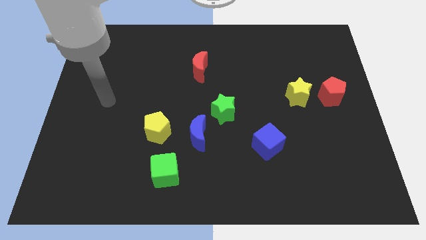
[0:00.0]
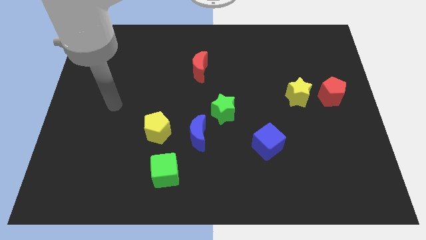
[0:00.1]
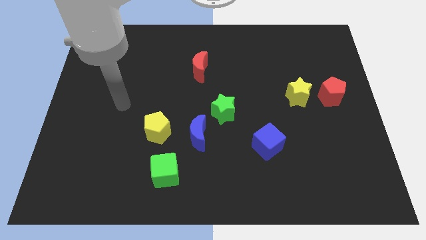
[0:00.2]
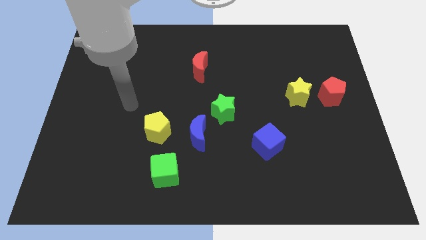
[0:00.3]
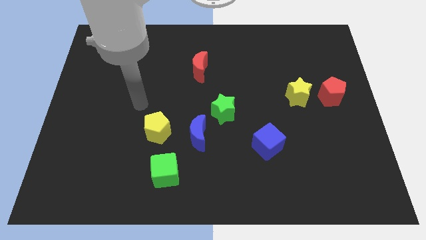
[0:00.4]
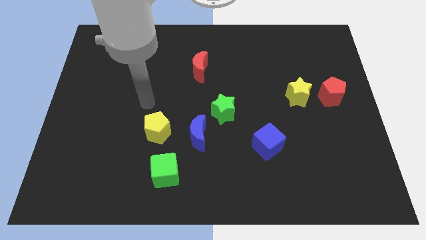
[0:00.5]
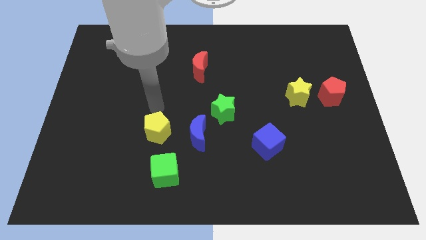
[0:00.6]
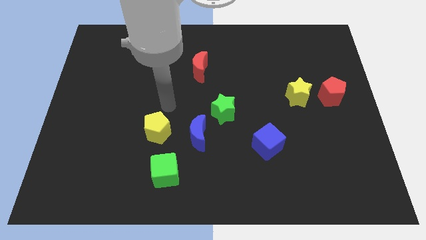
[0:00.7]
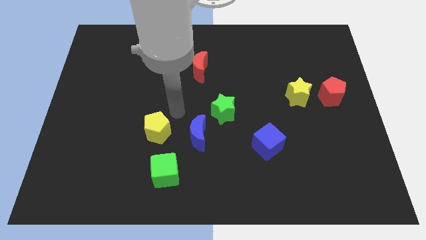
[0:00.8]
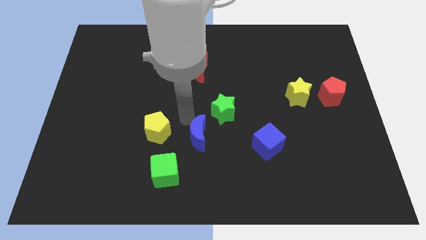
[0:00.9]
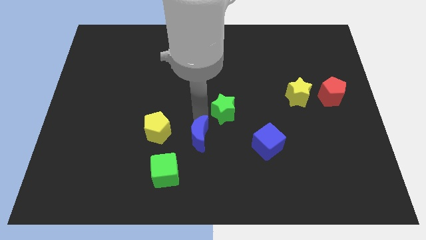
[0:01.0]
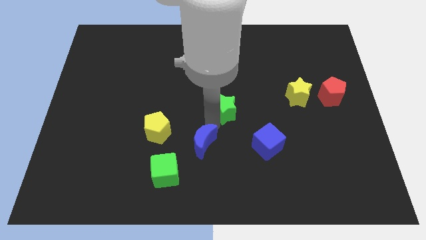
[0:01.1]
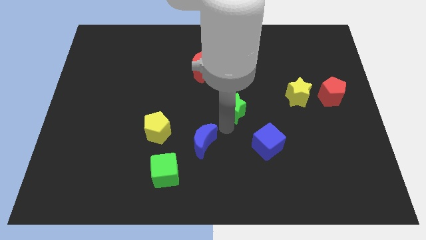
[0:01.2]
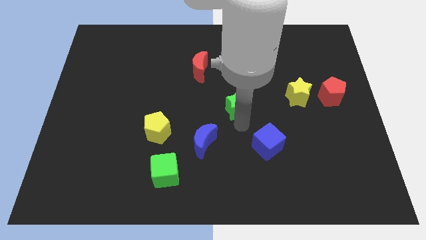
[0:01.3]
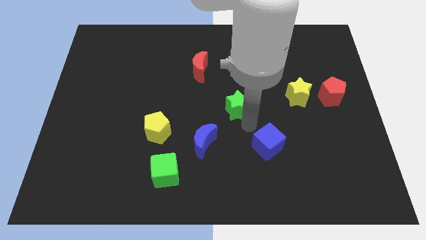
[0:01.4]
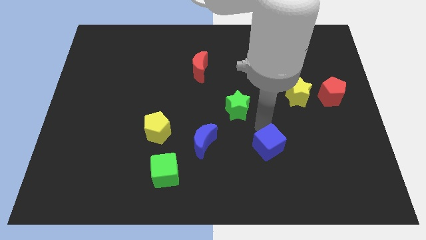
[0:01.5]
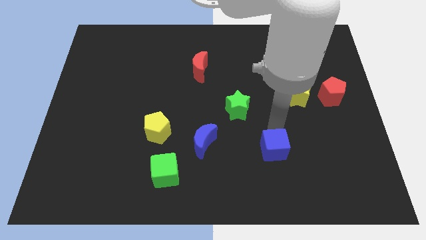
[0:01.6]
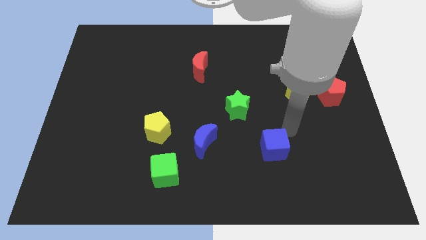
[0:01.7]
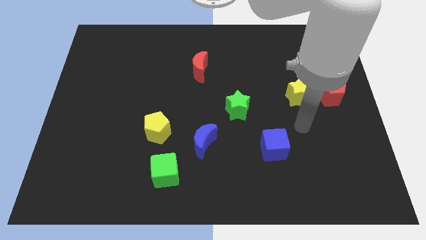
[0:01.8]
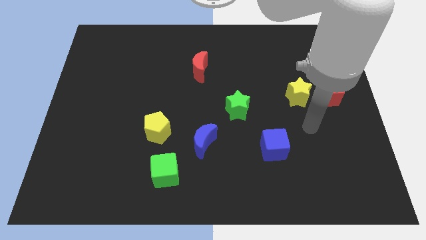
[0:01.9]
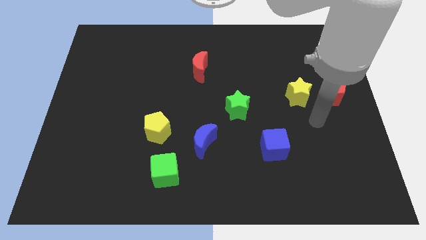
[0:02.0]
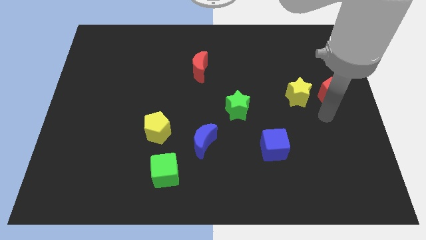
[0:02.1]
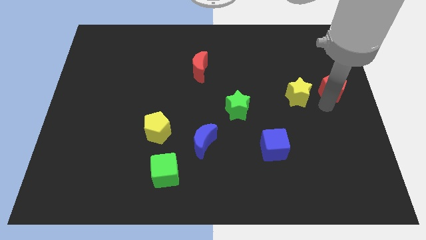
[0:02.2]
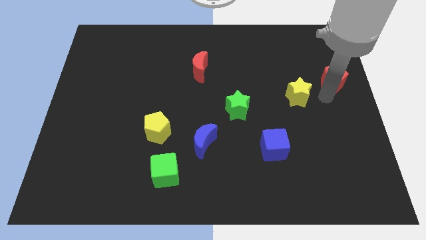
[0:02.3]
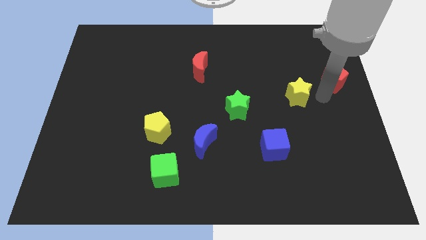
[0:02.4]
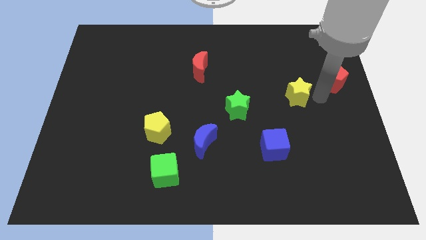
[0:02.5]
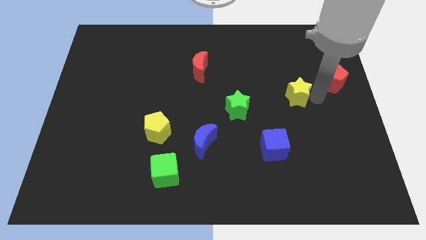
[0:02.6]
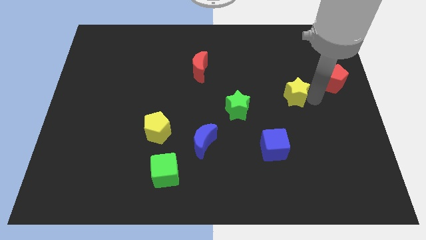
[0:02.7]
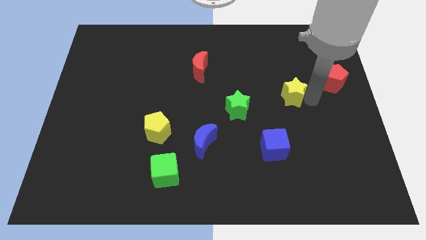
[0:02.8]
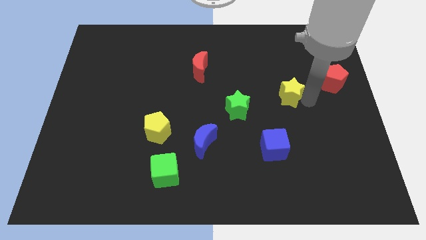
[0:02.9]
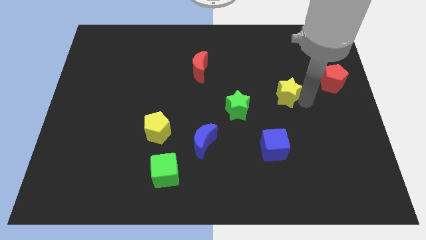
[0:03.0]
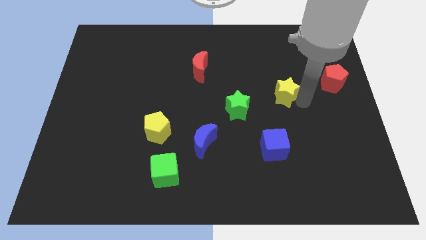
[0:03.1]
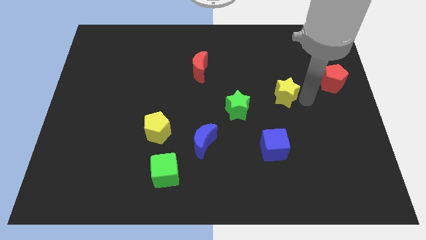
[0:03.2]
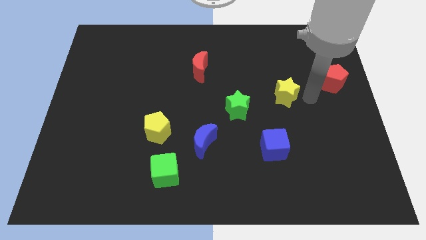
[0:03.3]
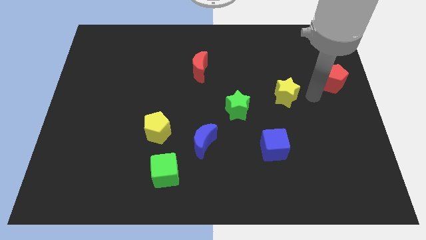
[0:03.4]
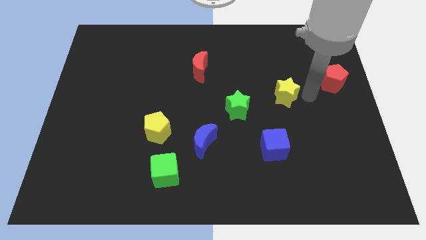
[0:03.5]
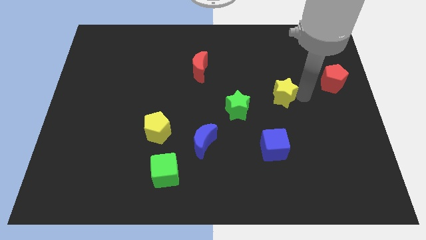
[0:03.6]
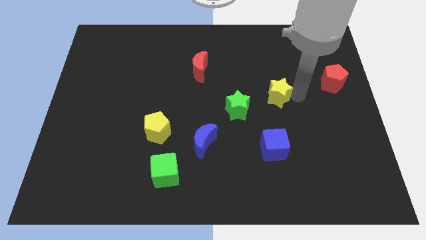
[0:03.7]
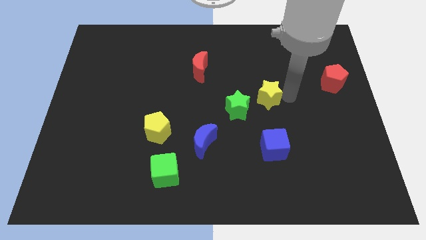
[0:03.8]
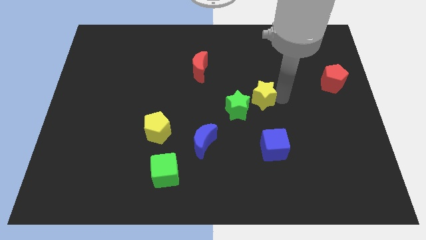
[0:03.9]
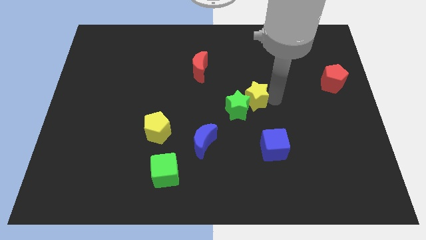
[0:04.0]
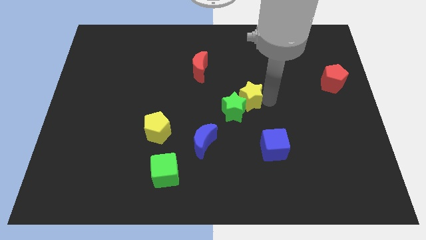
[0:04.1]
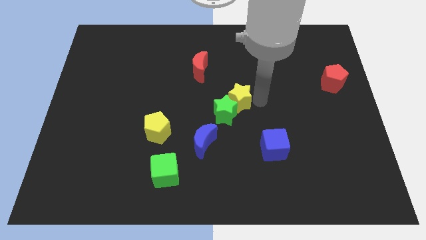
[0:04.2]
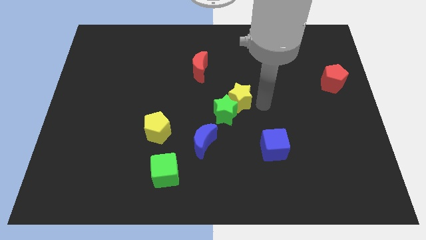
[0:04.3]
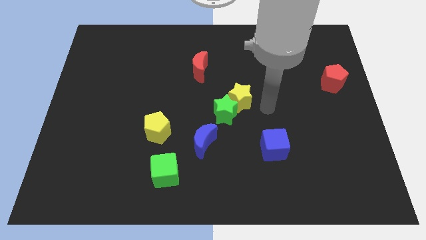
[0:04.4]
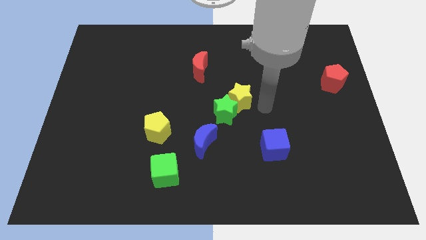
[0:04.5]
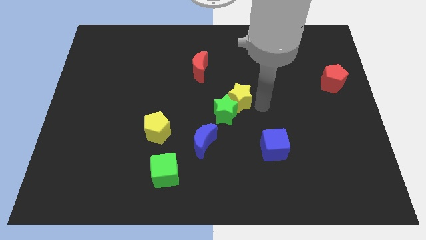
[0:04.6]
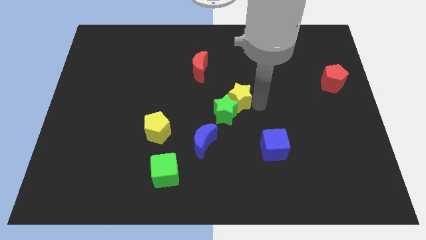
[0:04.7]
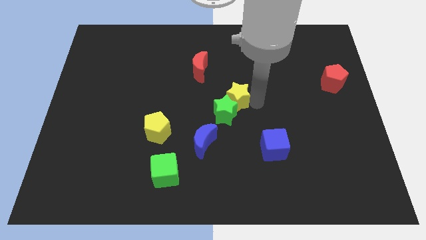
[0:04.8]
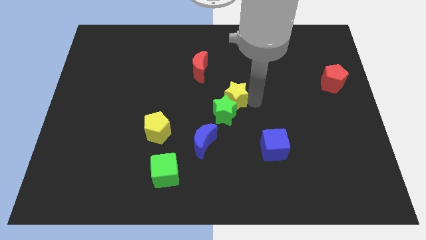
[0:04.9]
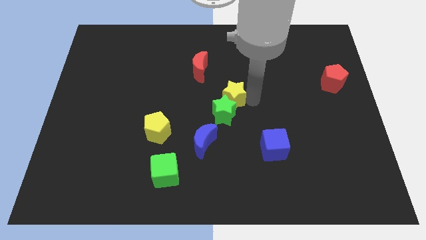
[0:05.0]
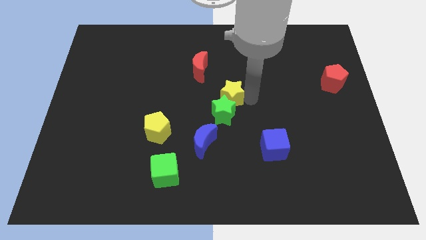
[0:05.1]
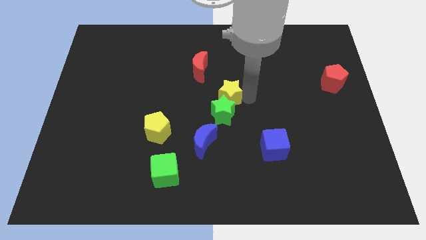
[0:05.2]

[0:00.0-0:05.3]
push the yellow star to the top left side of the green star

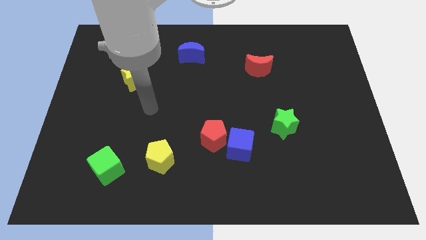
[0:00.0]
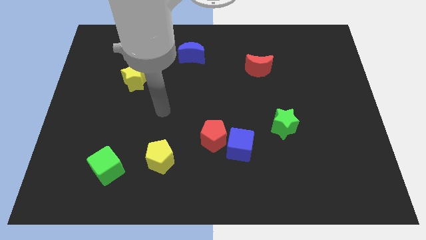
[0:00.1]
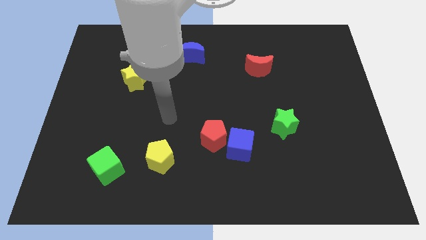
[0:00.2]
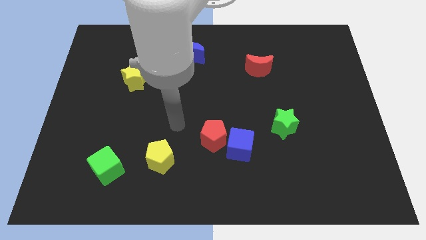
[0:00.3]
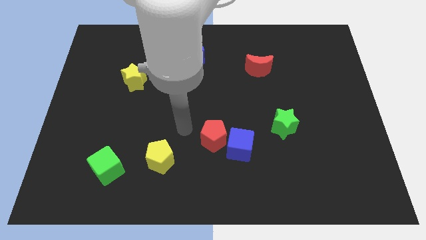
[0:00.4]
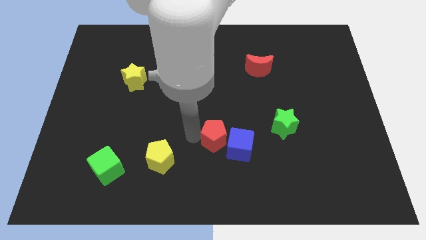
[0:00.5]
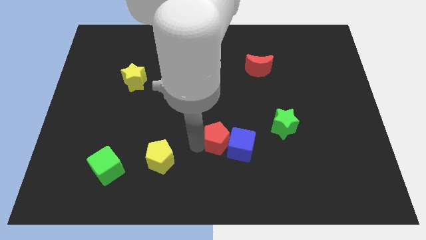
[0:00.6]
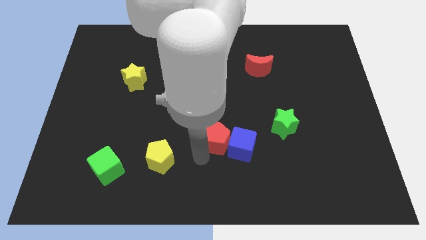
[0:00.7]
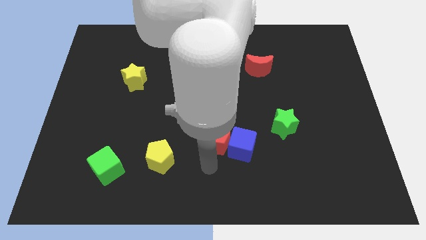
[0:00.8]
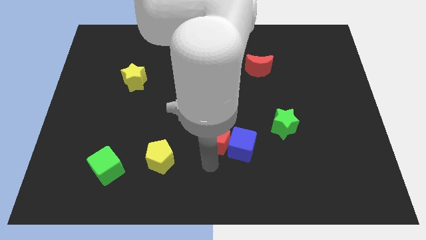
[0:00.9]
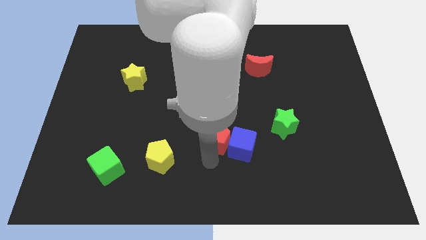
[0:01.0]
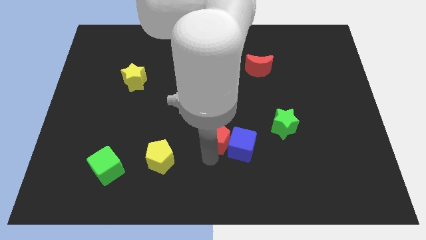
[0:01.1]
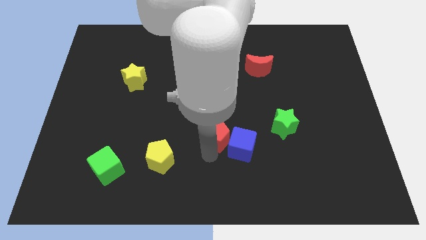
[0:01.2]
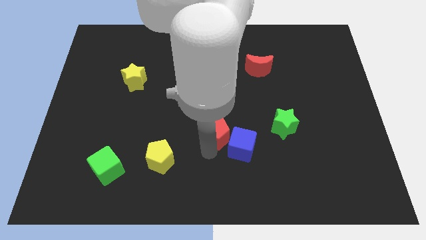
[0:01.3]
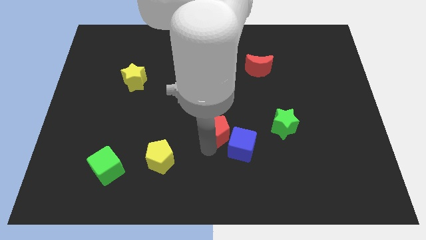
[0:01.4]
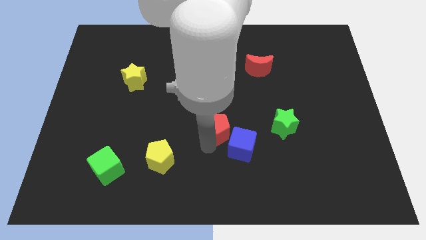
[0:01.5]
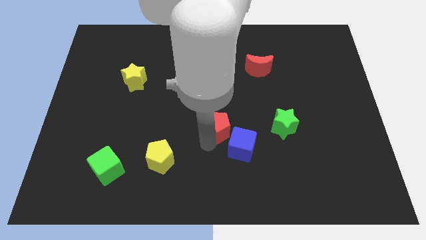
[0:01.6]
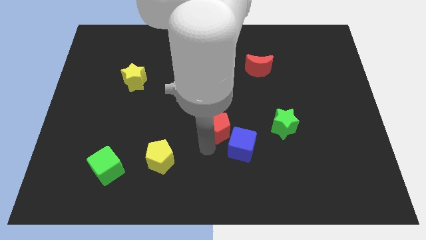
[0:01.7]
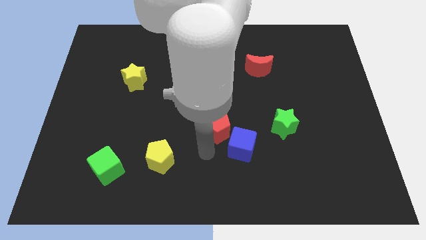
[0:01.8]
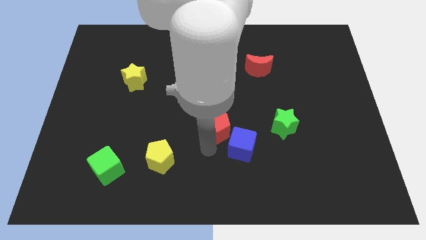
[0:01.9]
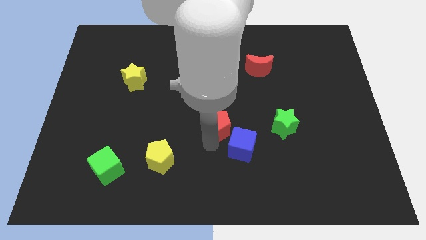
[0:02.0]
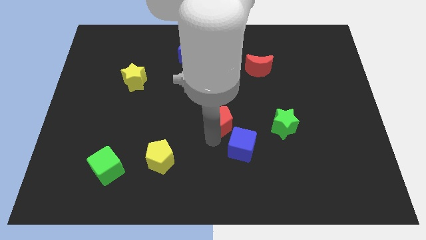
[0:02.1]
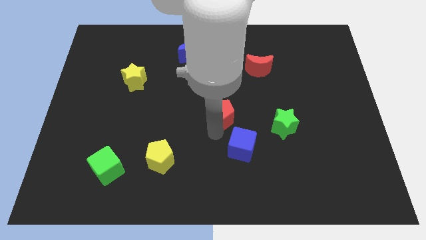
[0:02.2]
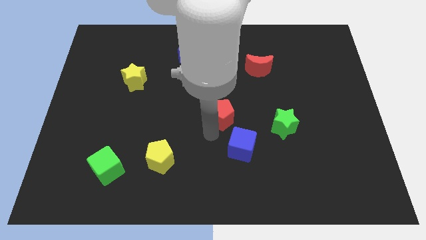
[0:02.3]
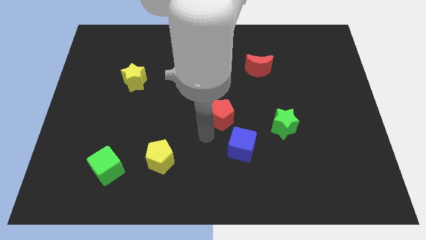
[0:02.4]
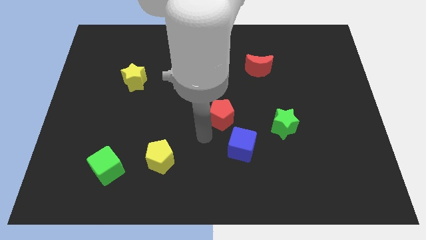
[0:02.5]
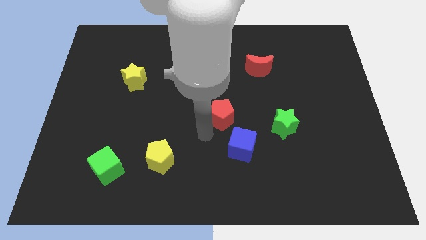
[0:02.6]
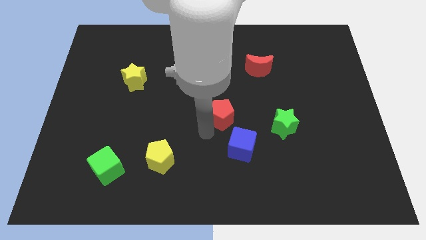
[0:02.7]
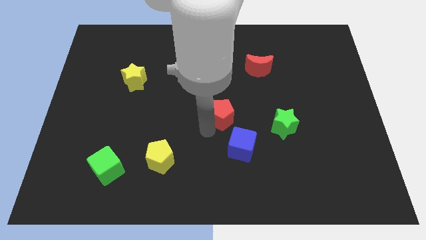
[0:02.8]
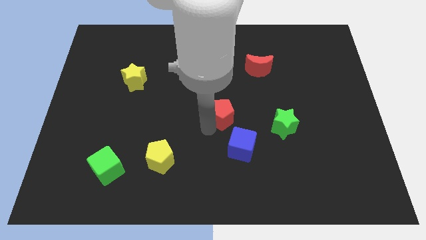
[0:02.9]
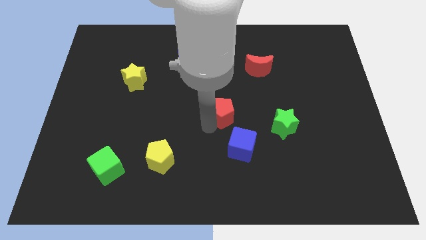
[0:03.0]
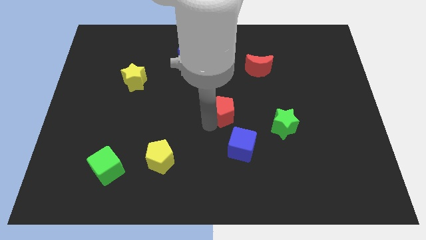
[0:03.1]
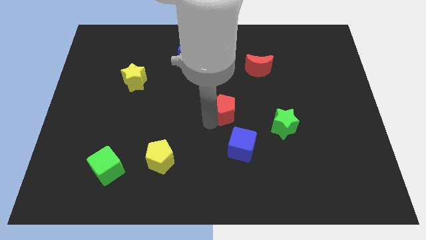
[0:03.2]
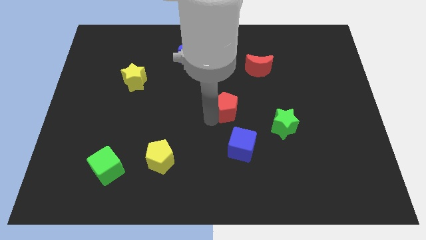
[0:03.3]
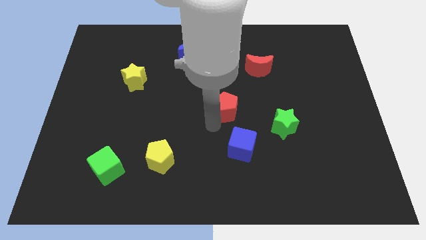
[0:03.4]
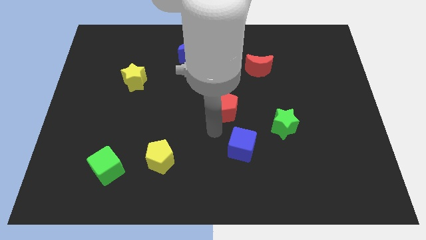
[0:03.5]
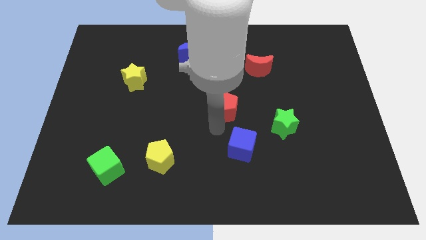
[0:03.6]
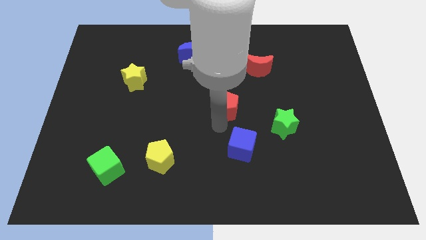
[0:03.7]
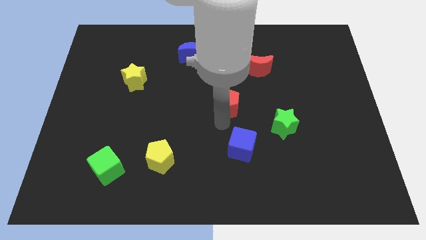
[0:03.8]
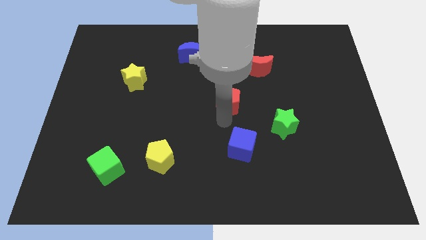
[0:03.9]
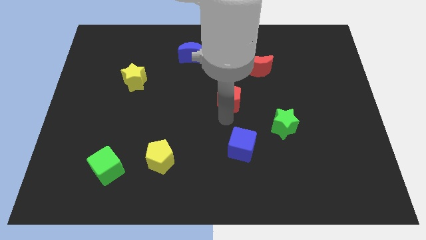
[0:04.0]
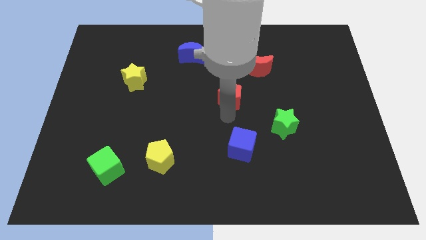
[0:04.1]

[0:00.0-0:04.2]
put the red pentagon diagonally down and to the left of the red moon
